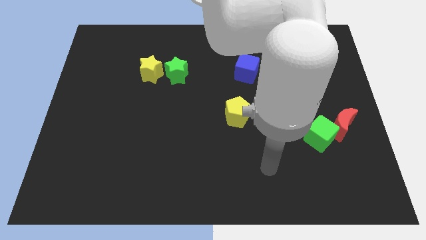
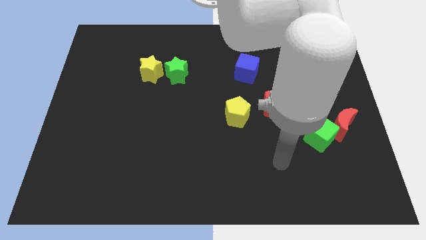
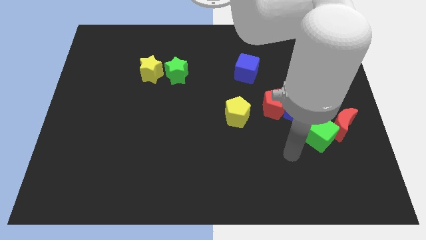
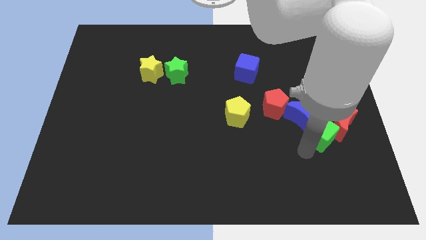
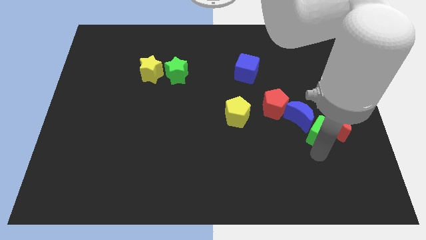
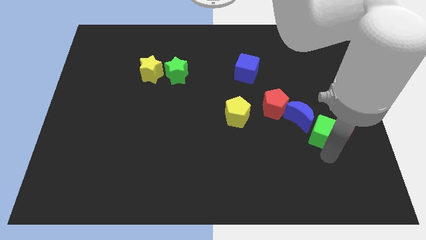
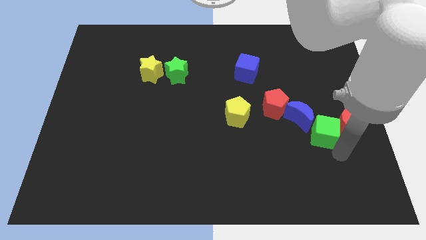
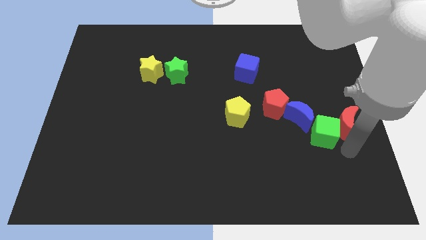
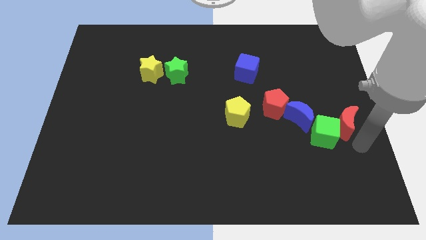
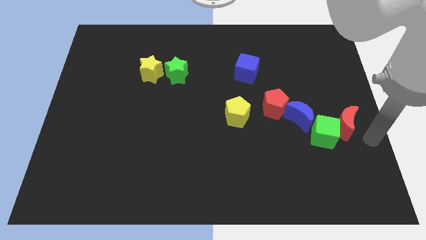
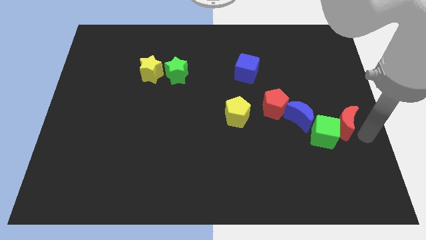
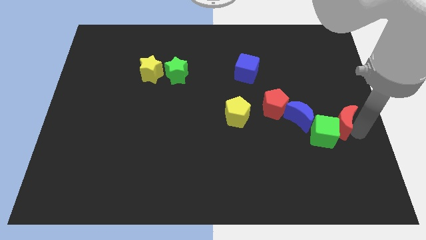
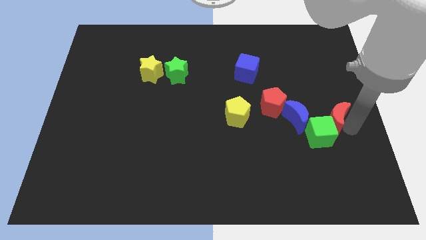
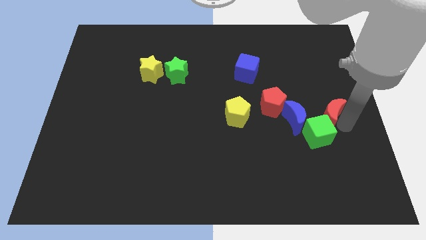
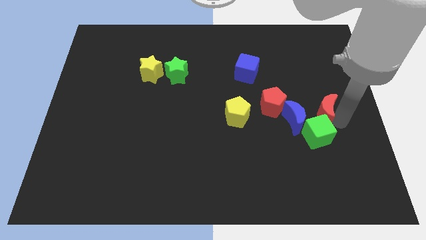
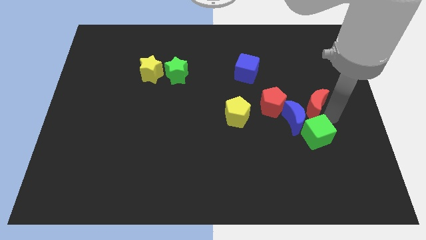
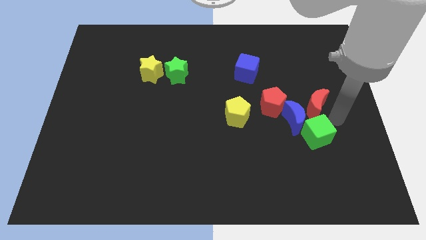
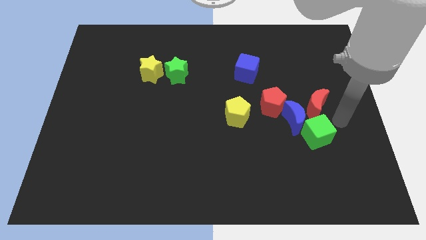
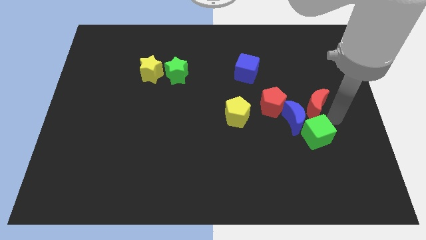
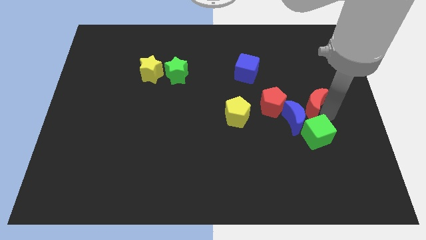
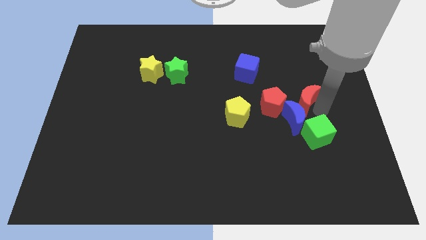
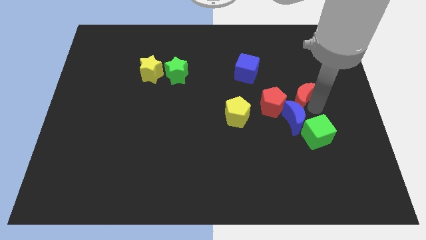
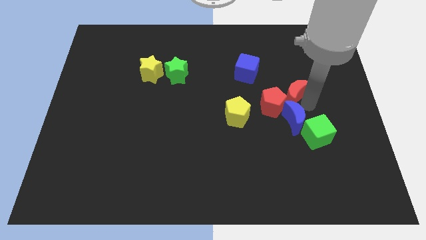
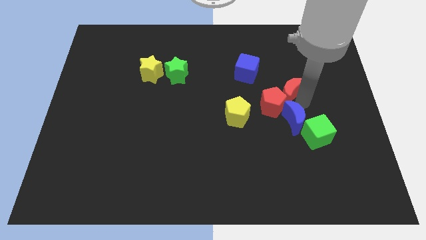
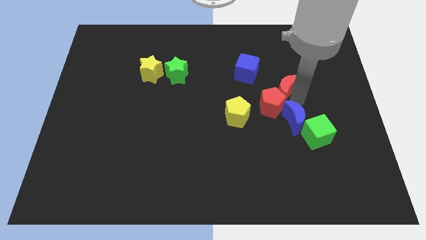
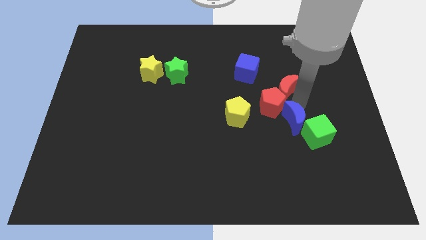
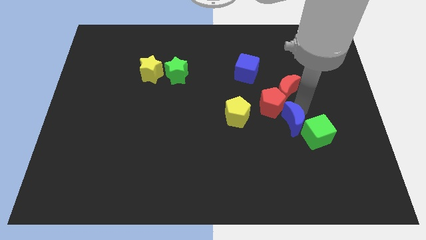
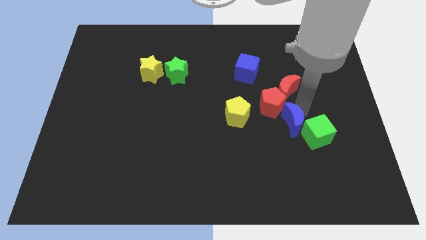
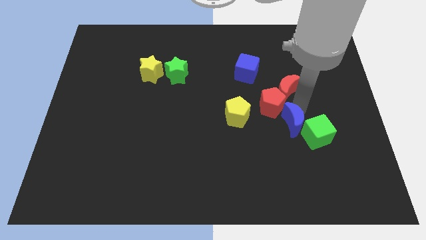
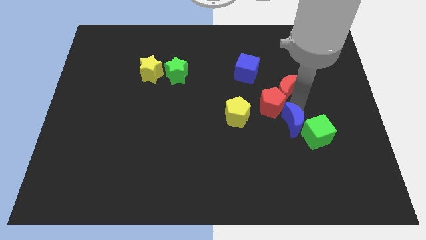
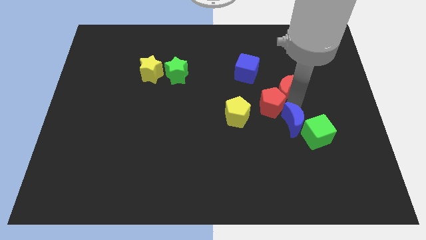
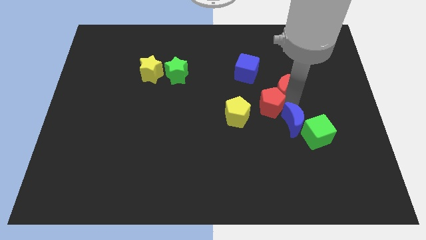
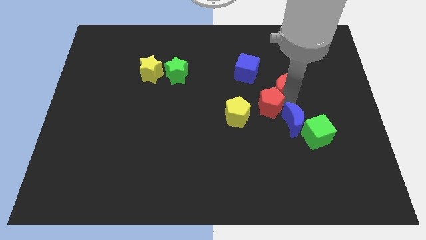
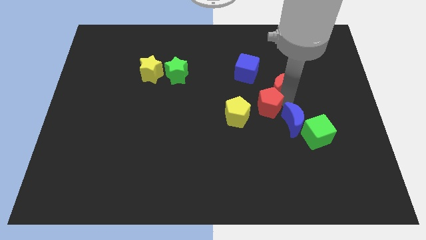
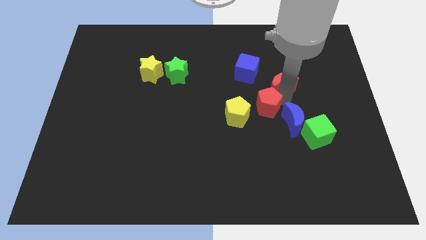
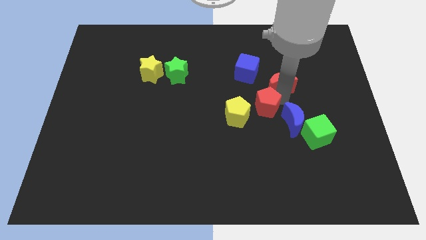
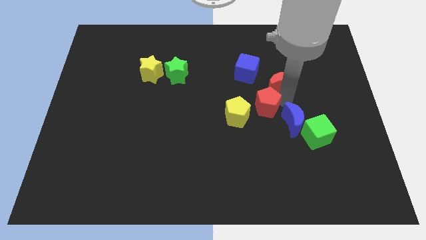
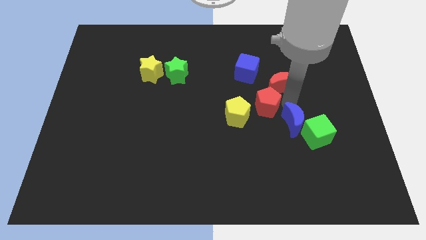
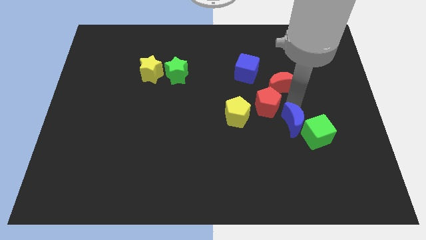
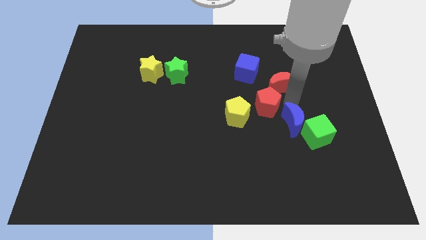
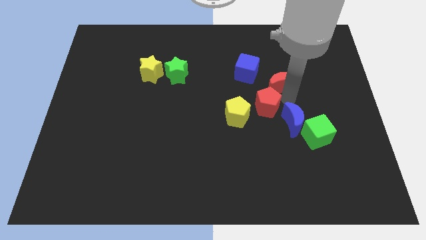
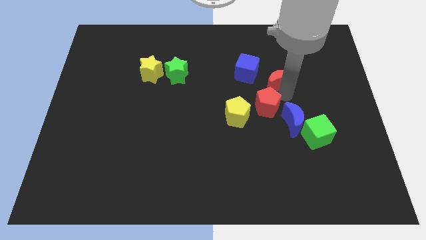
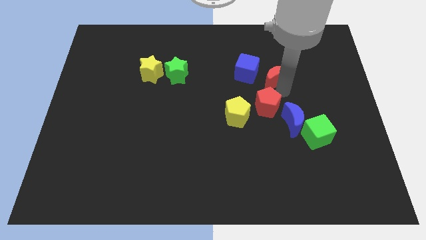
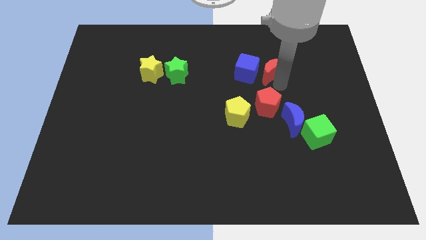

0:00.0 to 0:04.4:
push the red moon diagonally up and left

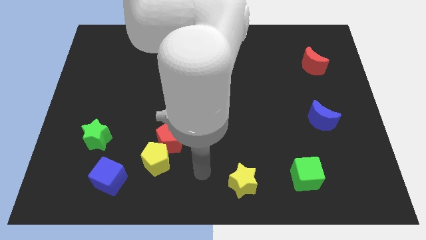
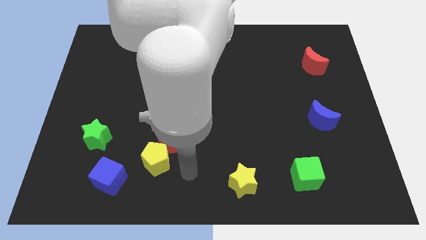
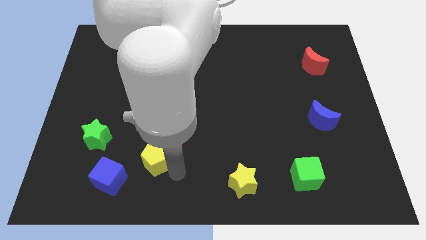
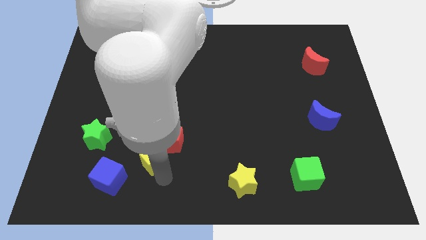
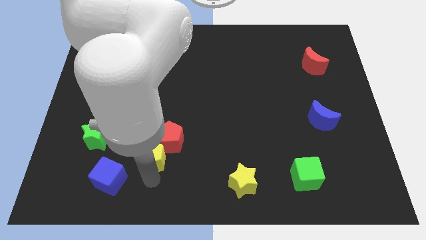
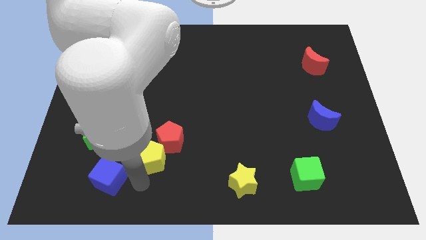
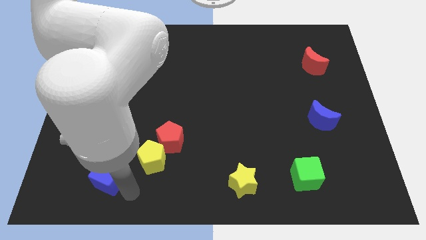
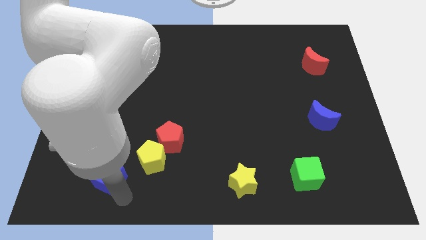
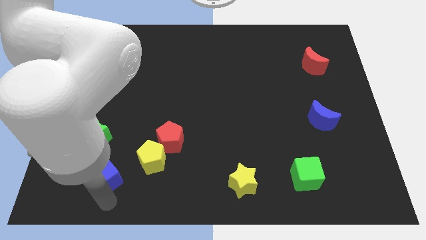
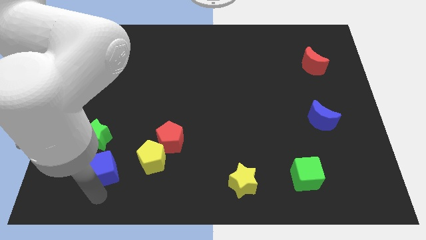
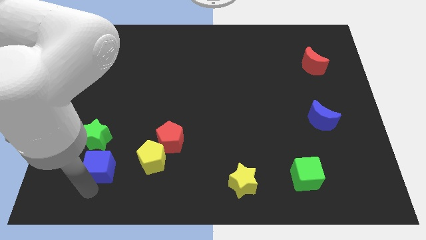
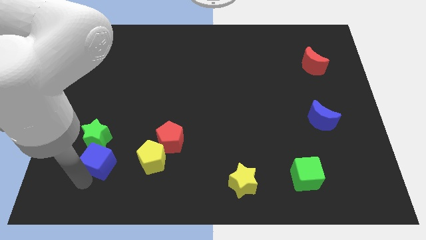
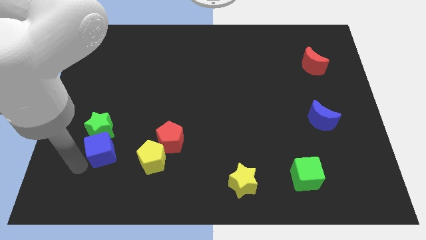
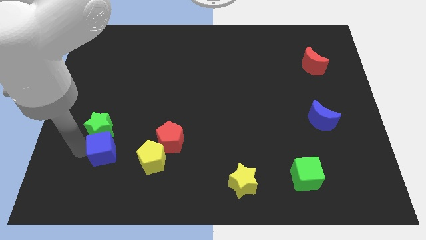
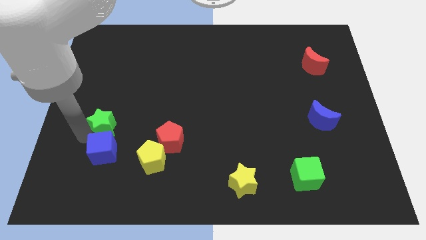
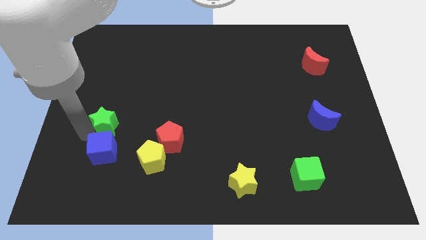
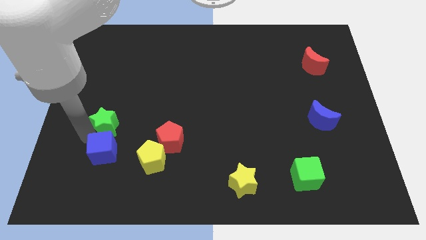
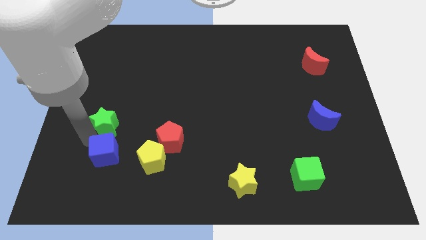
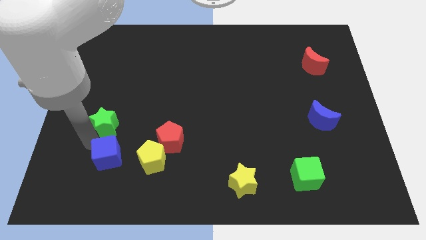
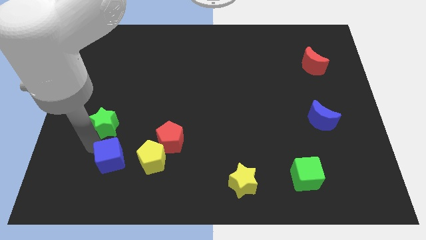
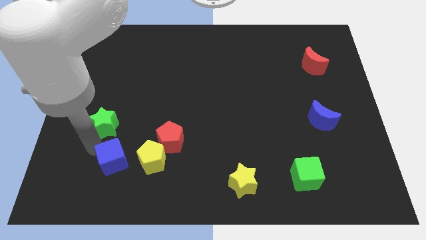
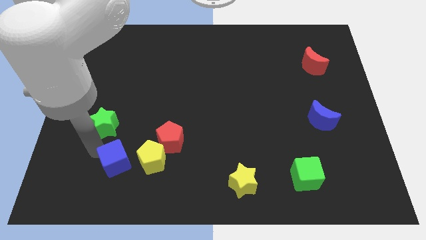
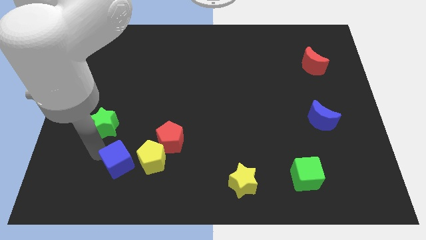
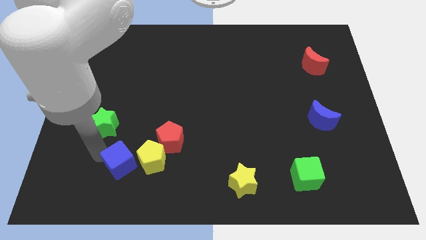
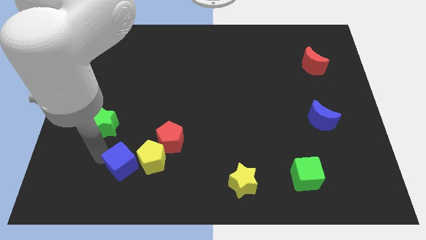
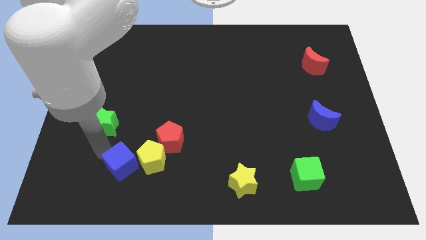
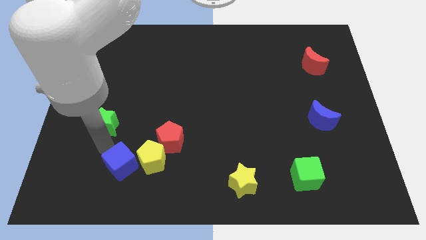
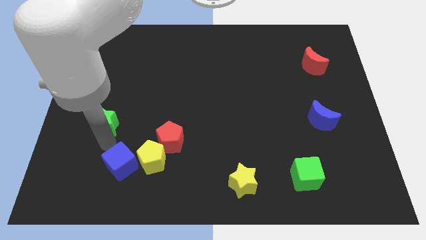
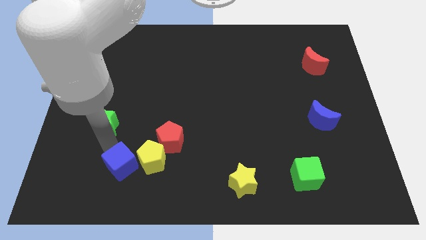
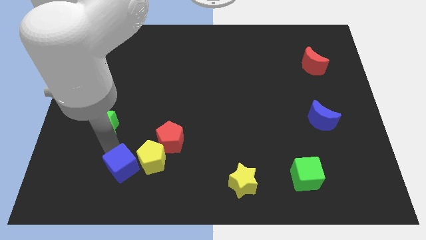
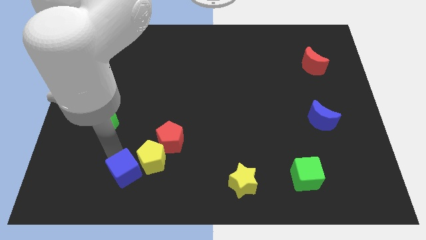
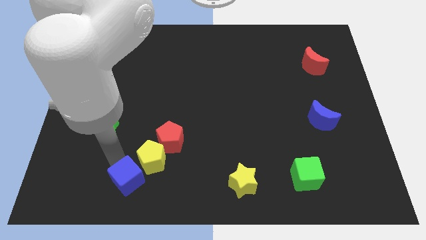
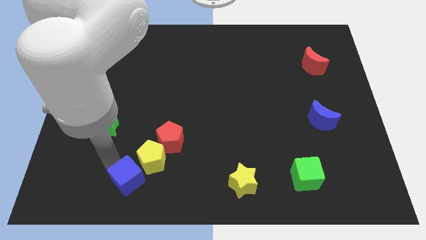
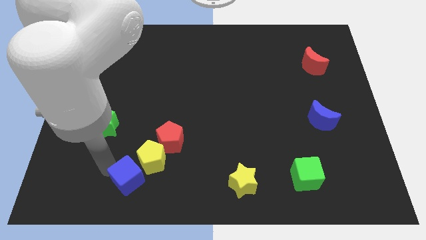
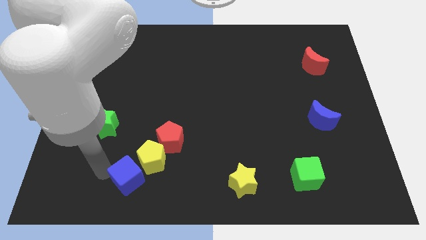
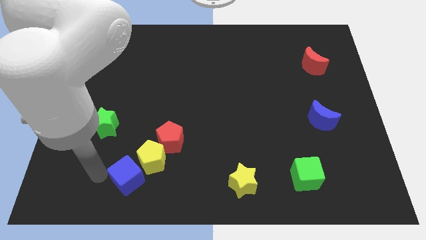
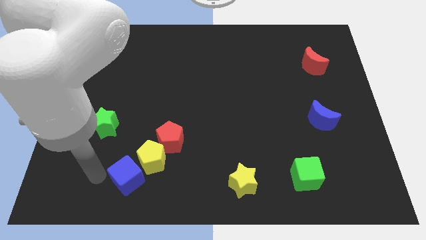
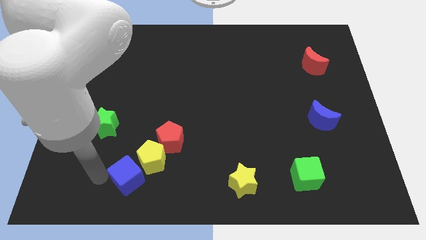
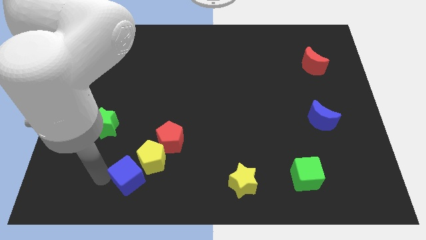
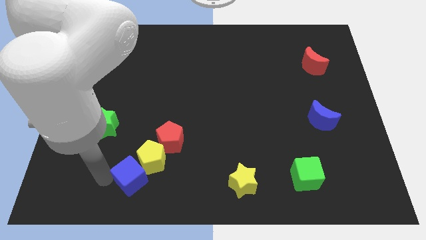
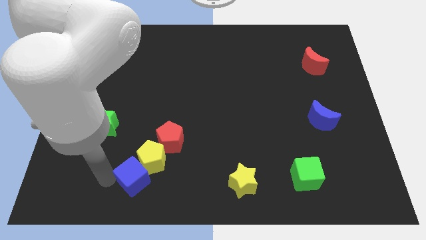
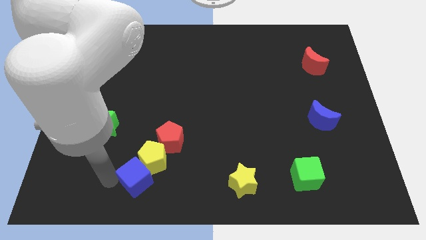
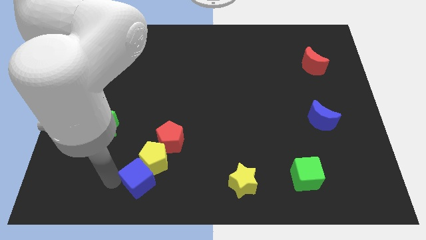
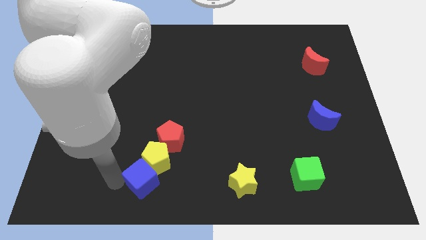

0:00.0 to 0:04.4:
move the blue cube right a little bit
